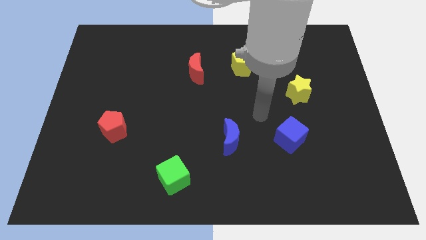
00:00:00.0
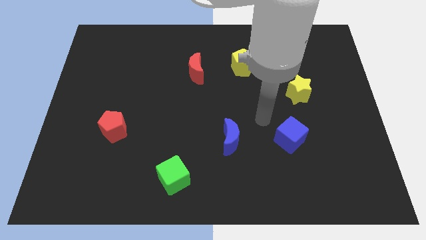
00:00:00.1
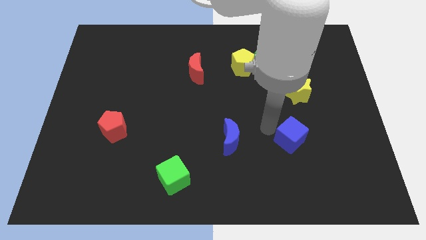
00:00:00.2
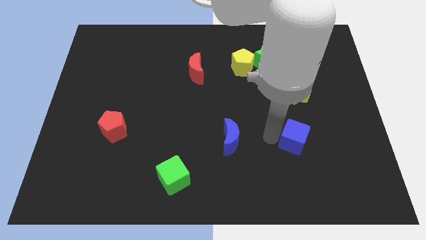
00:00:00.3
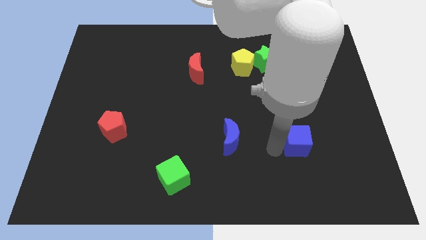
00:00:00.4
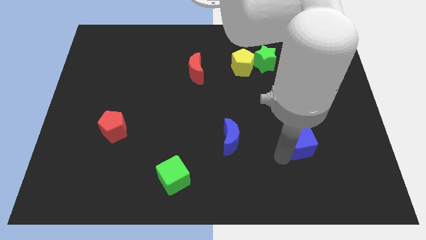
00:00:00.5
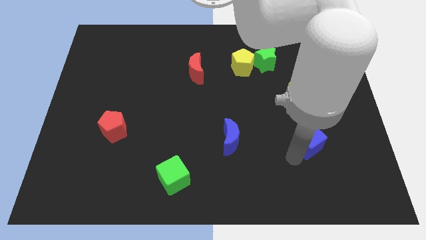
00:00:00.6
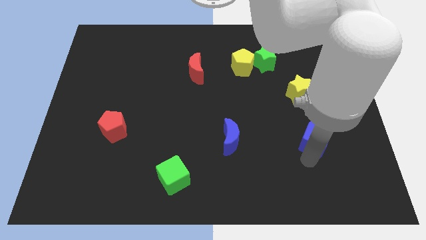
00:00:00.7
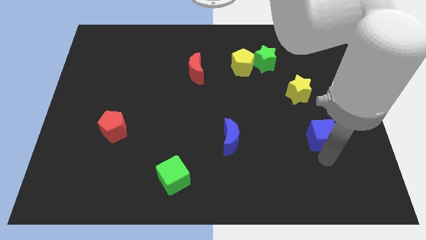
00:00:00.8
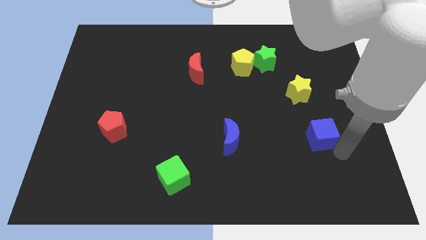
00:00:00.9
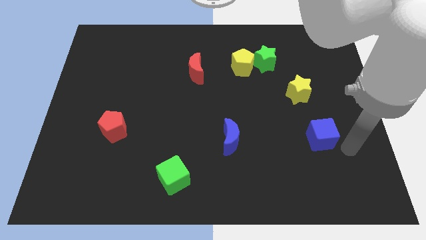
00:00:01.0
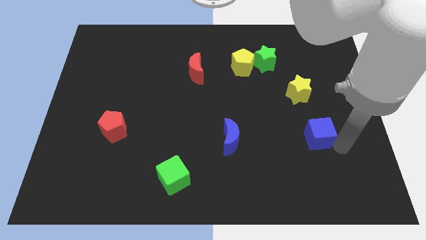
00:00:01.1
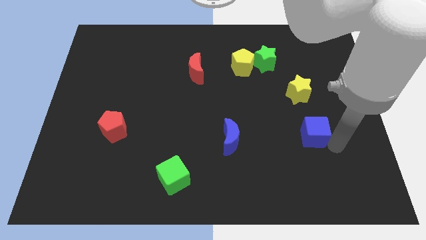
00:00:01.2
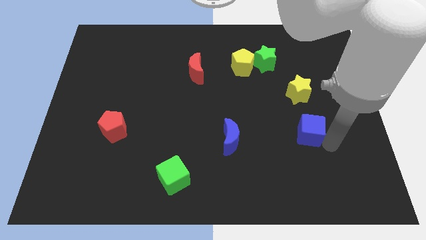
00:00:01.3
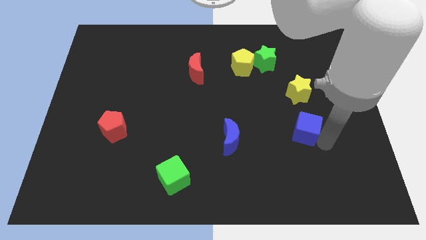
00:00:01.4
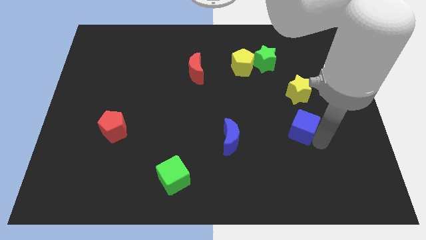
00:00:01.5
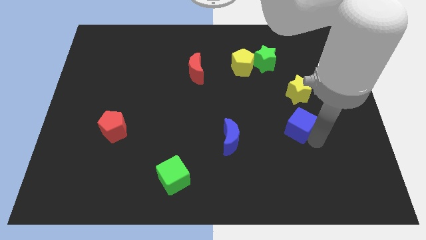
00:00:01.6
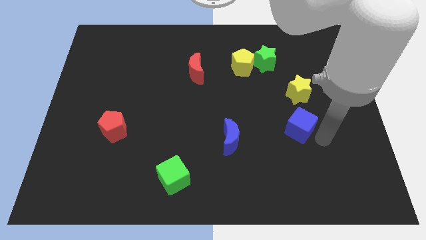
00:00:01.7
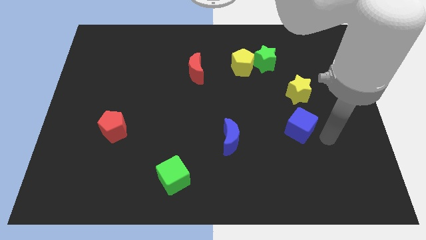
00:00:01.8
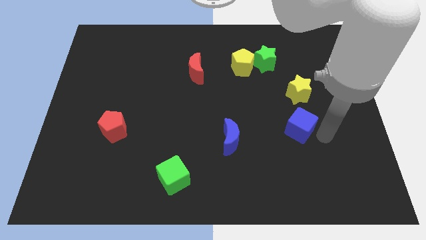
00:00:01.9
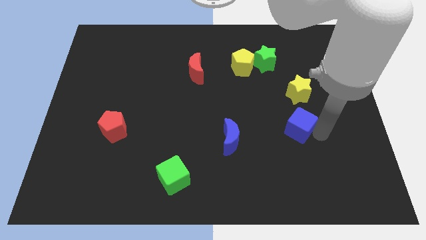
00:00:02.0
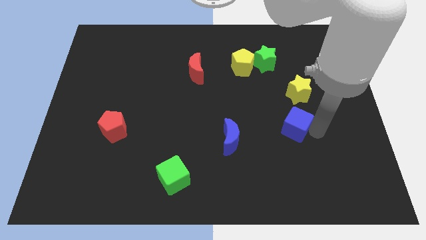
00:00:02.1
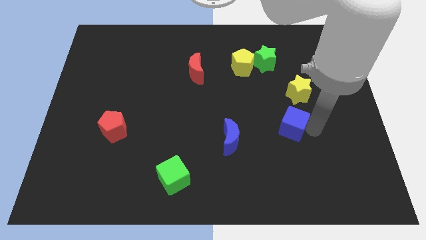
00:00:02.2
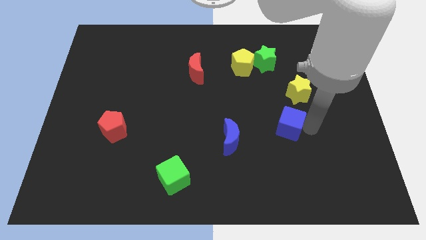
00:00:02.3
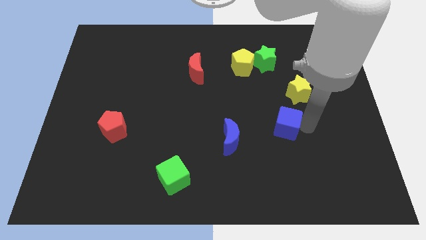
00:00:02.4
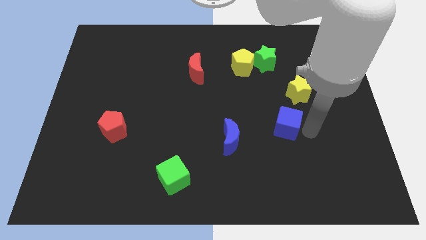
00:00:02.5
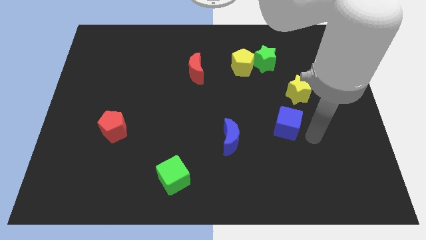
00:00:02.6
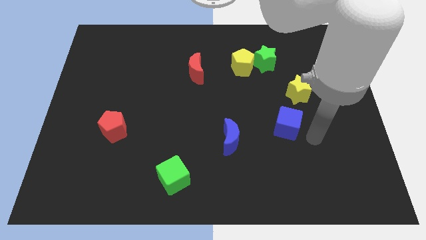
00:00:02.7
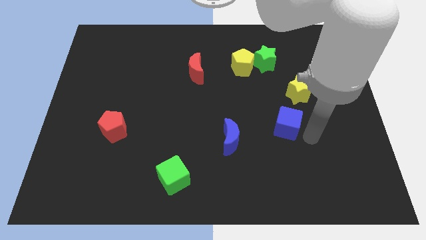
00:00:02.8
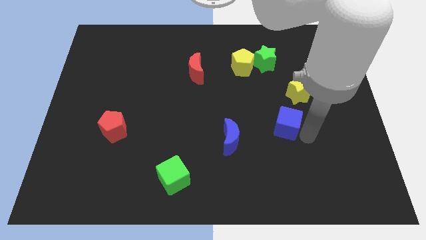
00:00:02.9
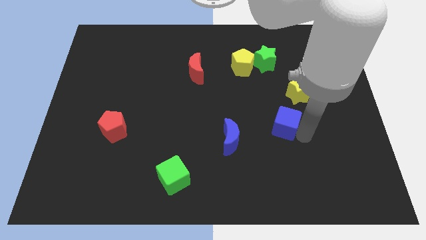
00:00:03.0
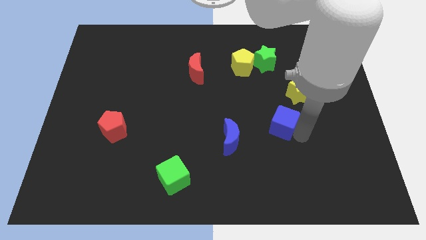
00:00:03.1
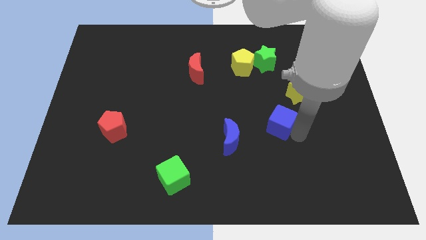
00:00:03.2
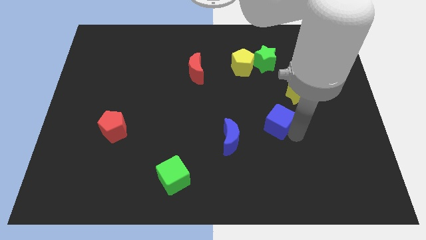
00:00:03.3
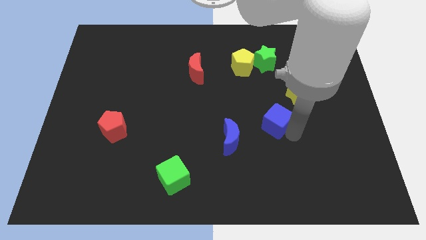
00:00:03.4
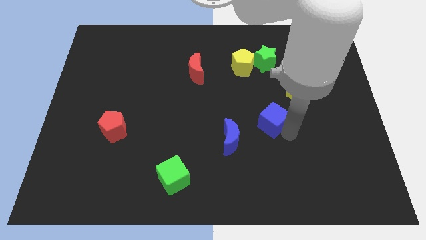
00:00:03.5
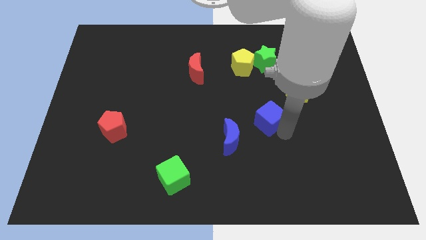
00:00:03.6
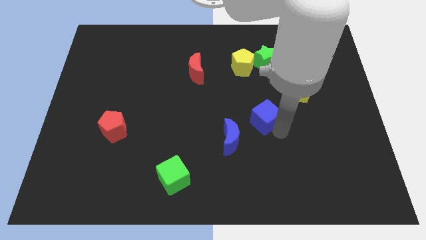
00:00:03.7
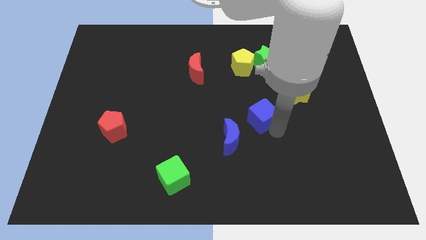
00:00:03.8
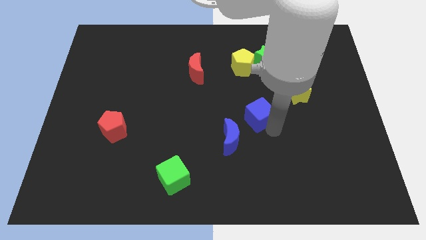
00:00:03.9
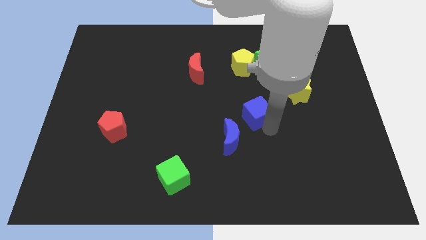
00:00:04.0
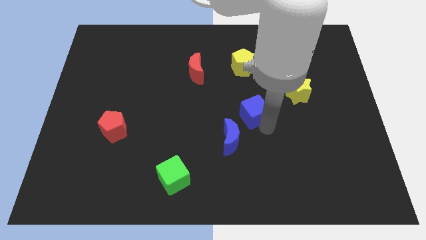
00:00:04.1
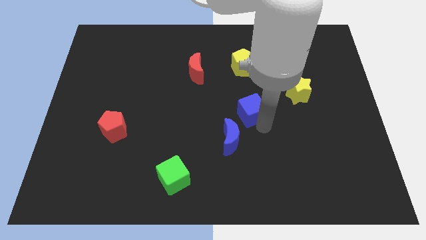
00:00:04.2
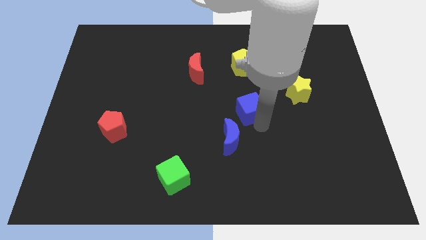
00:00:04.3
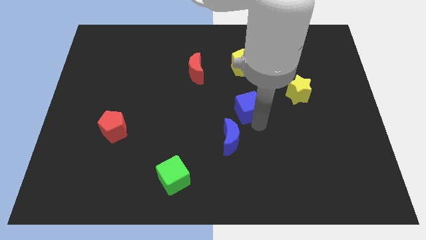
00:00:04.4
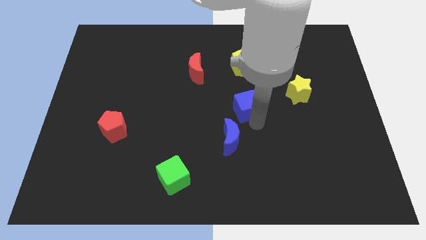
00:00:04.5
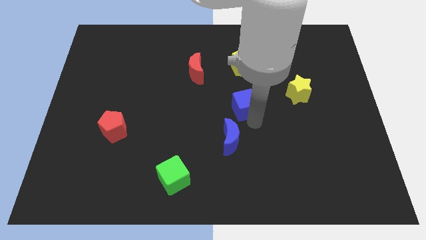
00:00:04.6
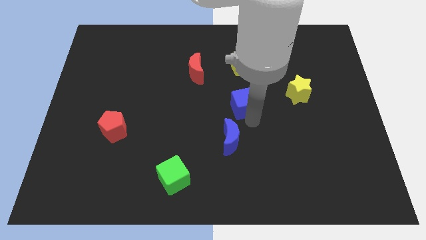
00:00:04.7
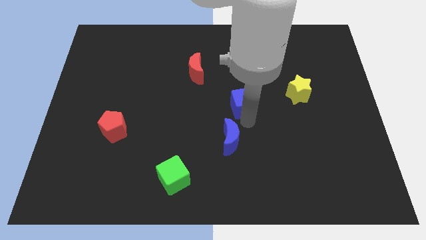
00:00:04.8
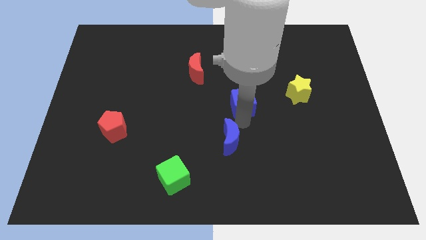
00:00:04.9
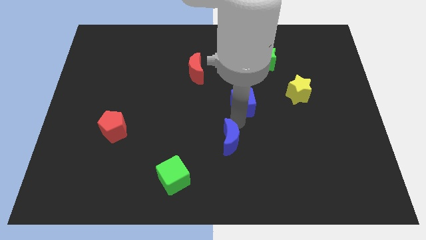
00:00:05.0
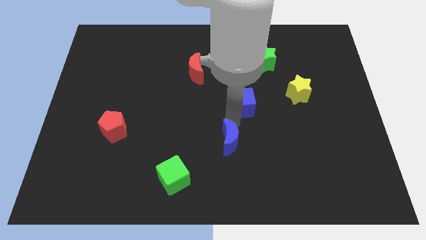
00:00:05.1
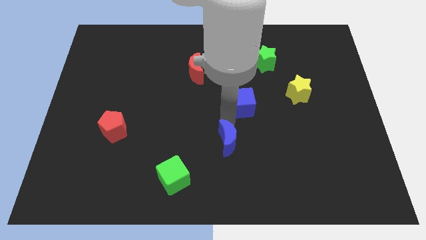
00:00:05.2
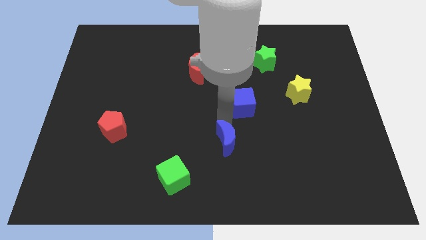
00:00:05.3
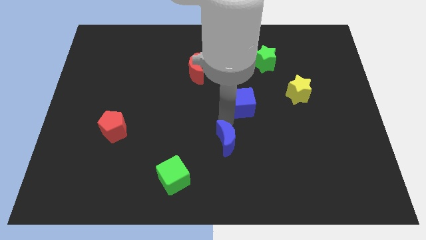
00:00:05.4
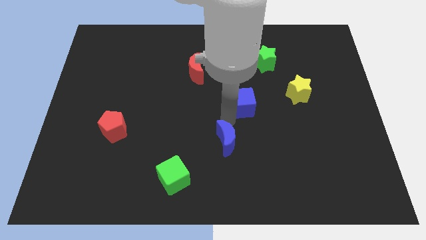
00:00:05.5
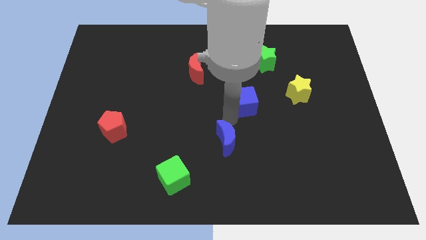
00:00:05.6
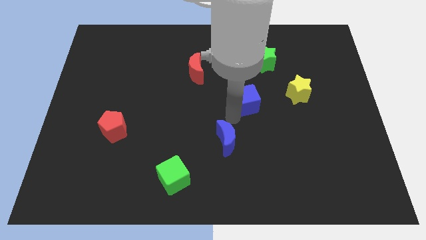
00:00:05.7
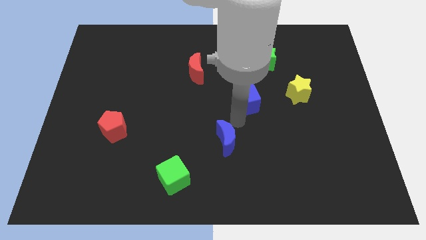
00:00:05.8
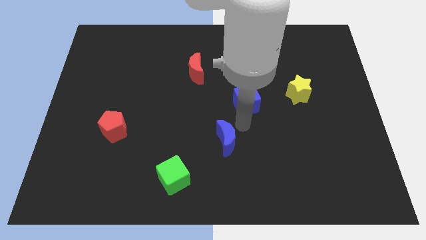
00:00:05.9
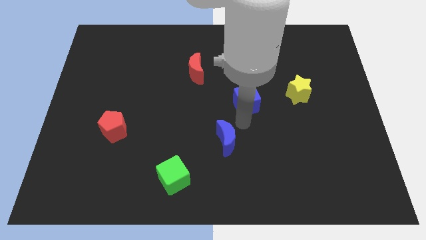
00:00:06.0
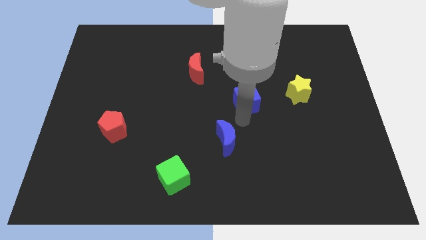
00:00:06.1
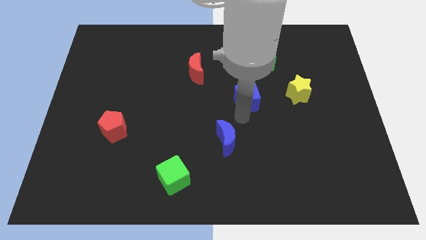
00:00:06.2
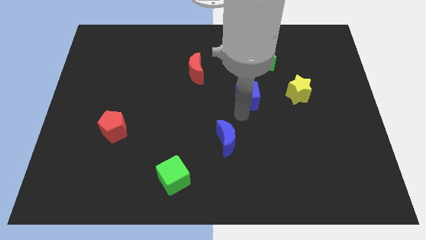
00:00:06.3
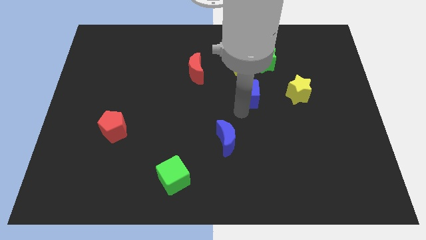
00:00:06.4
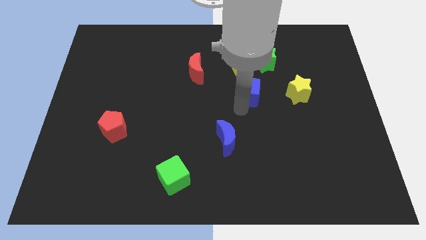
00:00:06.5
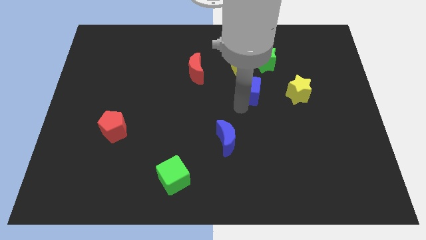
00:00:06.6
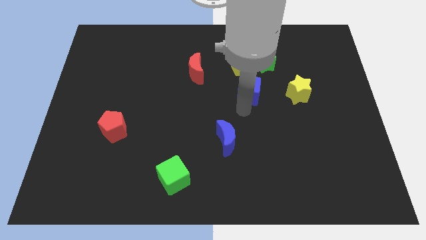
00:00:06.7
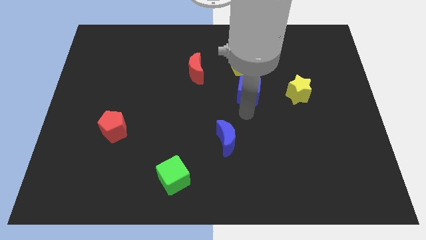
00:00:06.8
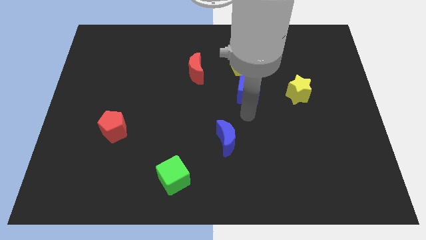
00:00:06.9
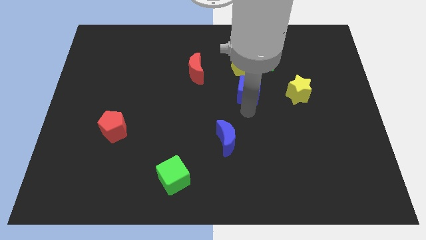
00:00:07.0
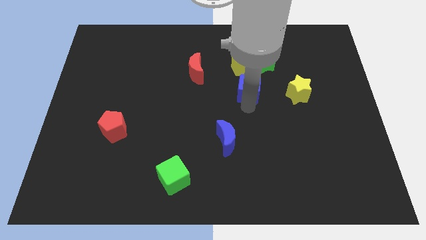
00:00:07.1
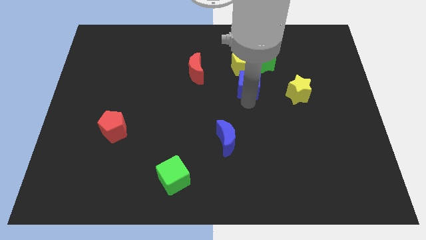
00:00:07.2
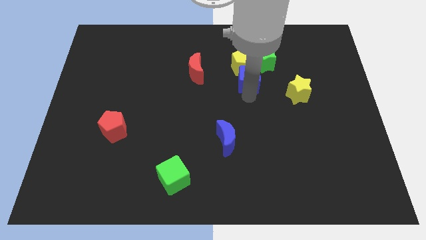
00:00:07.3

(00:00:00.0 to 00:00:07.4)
move the blue cube next to the yellow pentagon

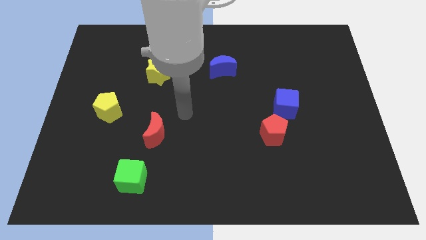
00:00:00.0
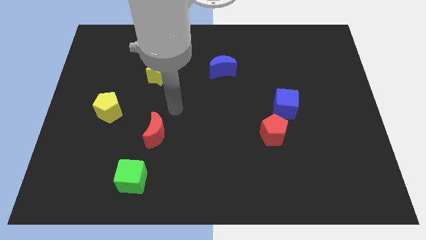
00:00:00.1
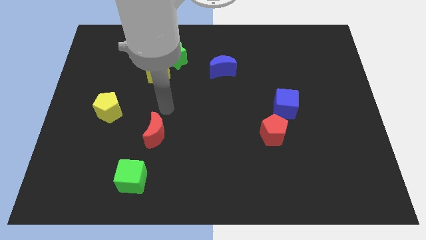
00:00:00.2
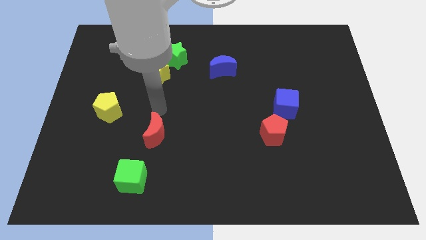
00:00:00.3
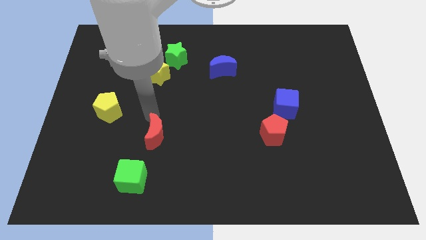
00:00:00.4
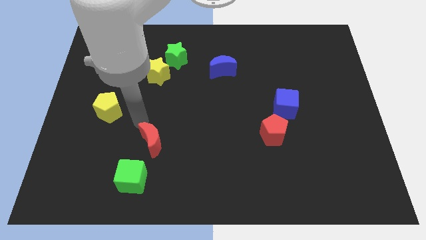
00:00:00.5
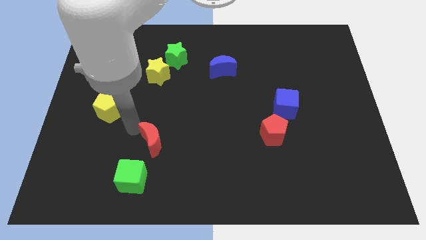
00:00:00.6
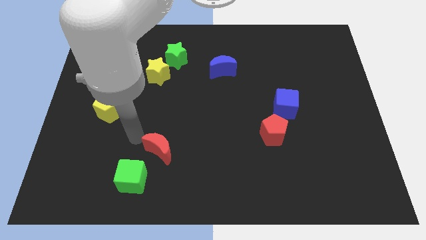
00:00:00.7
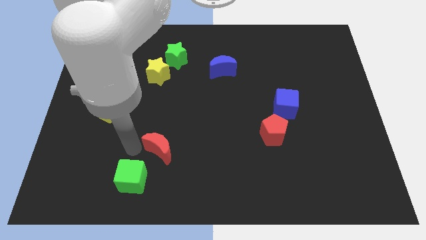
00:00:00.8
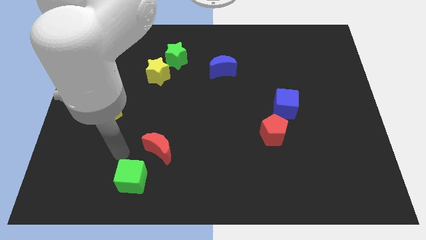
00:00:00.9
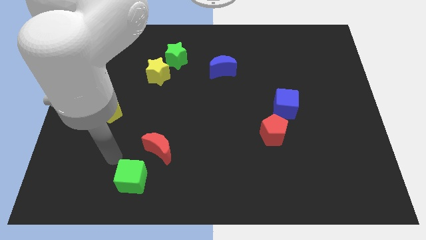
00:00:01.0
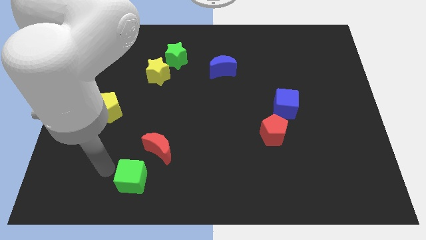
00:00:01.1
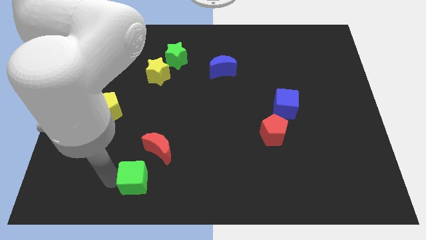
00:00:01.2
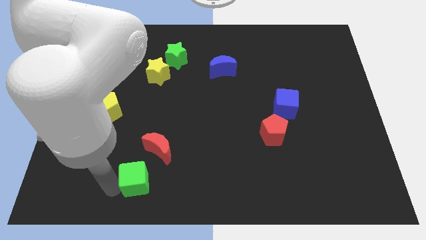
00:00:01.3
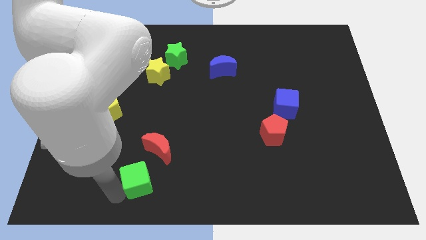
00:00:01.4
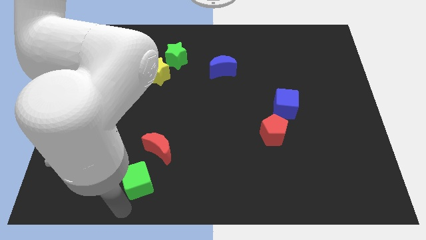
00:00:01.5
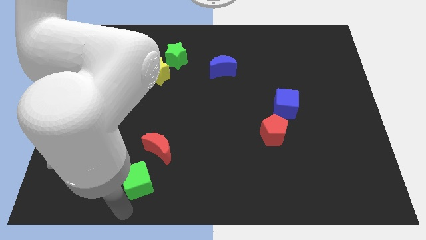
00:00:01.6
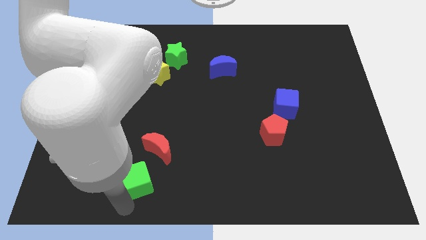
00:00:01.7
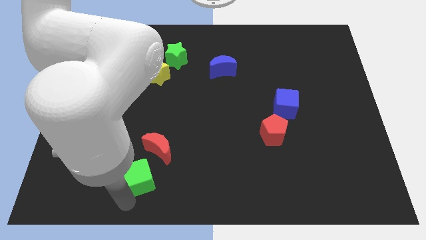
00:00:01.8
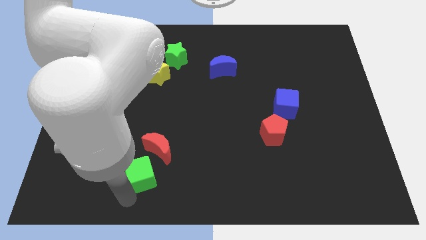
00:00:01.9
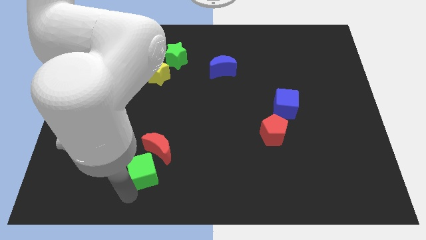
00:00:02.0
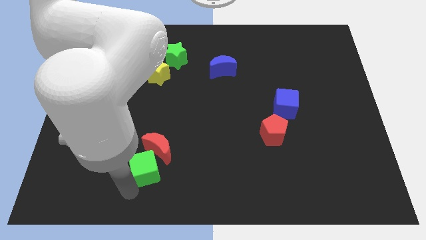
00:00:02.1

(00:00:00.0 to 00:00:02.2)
put the green cube to the red moon
